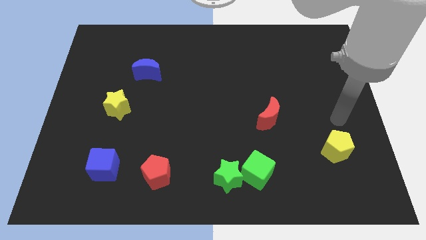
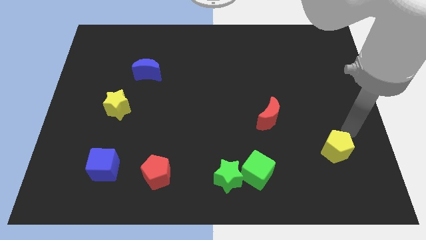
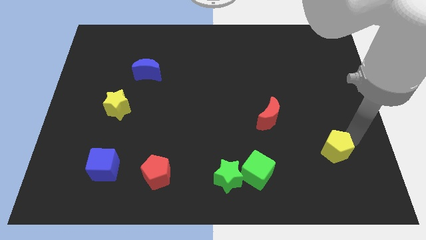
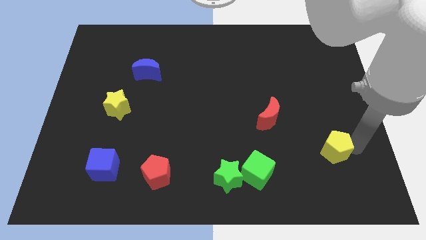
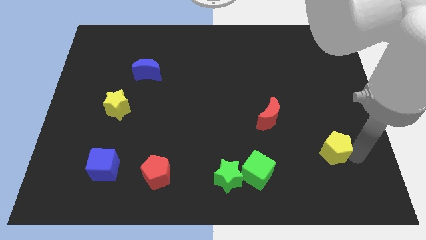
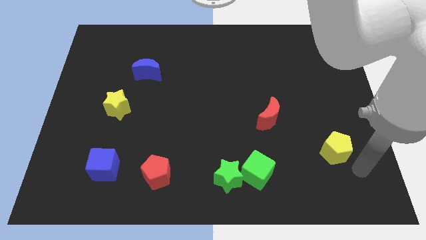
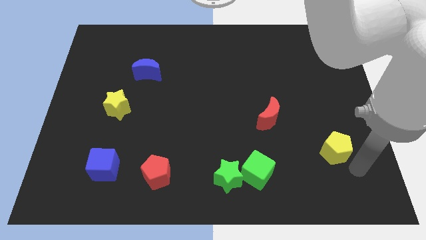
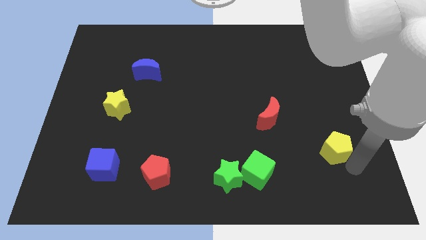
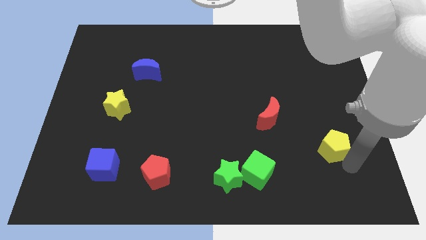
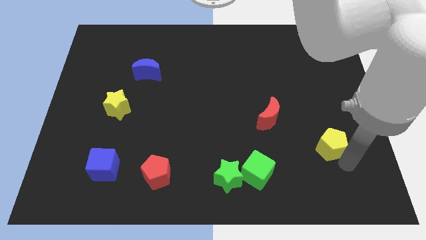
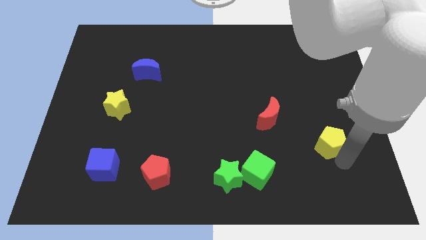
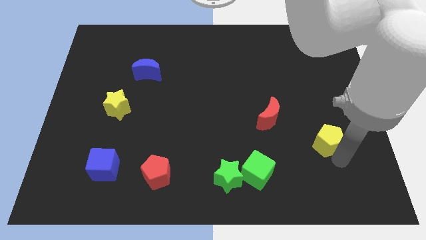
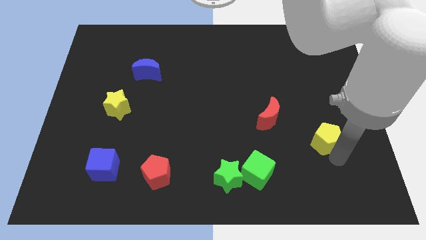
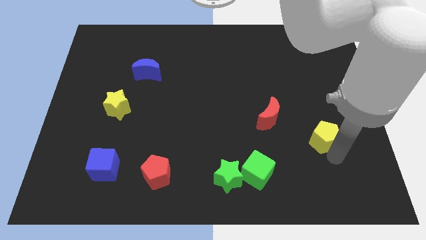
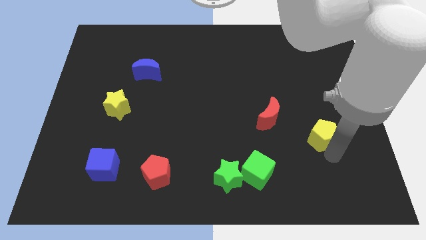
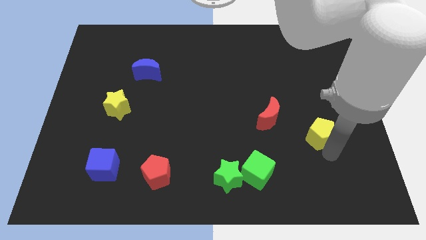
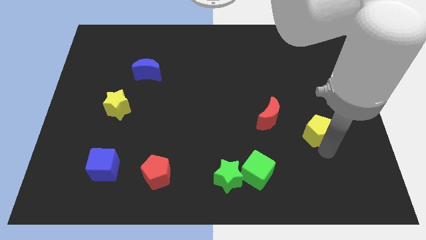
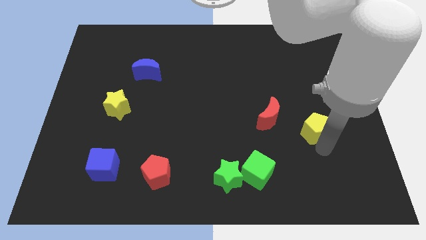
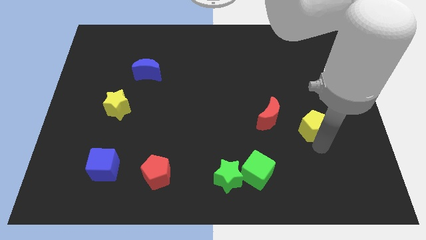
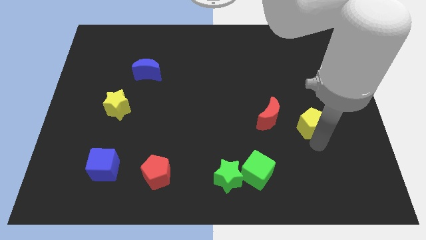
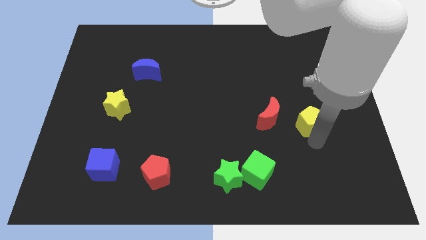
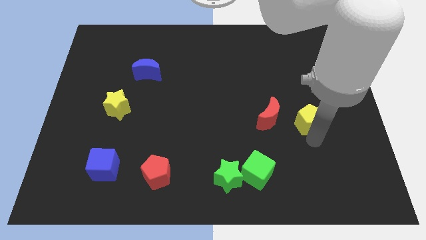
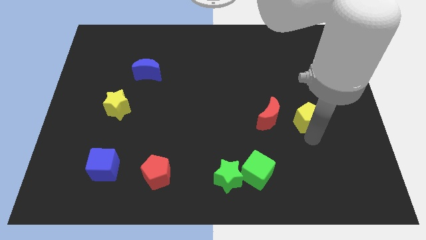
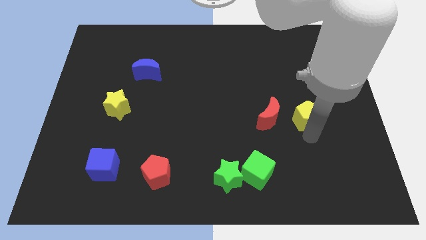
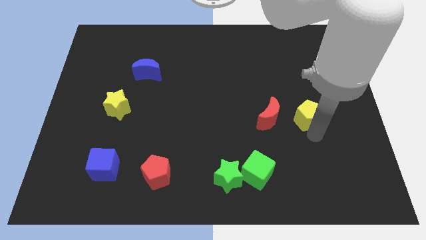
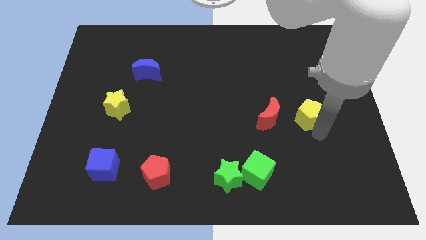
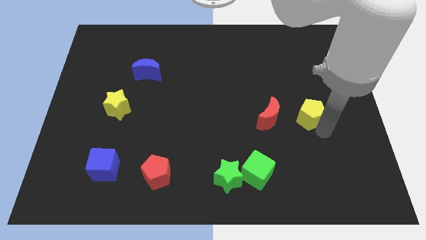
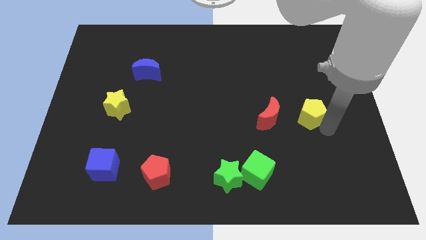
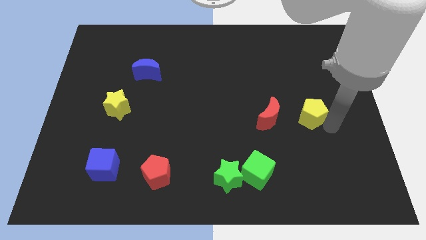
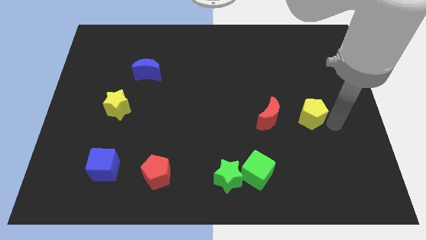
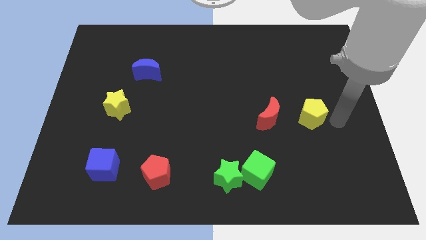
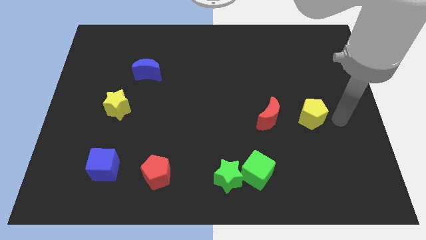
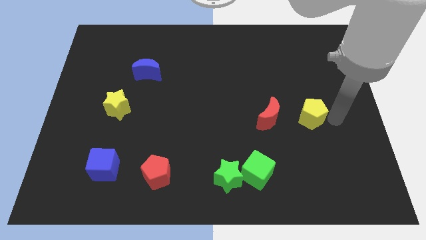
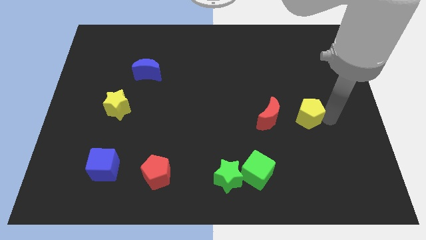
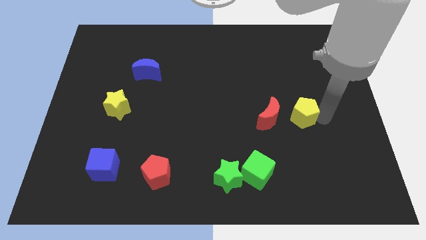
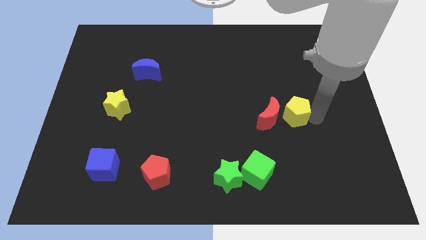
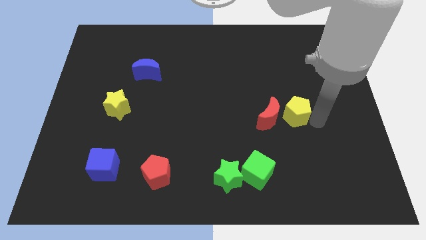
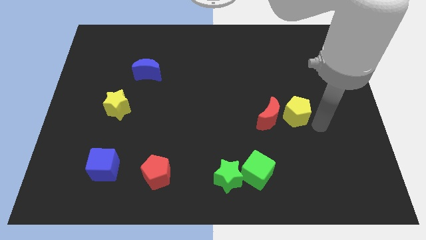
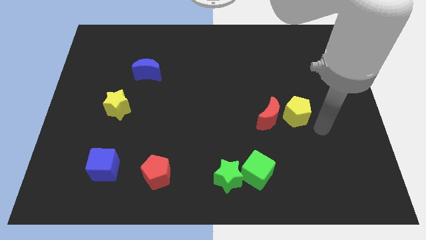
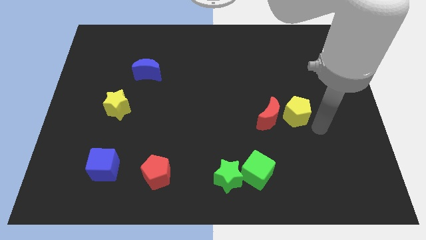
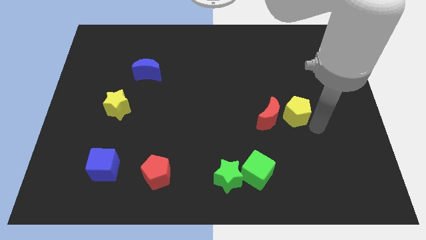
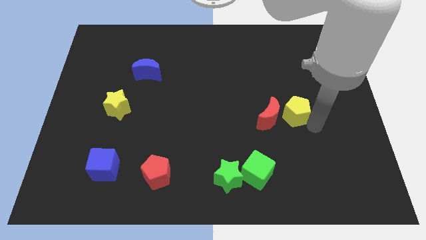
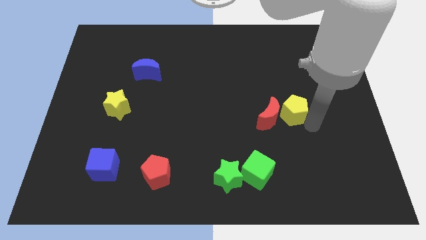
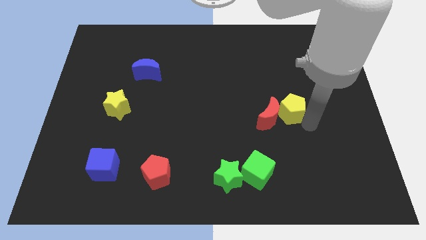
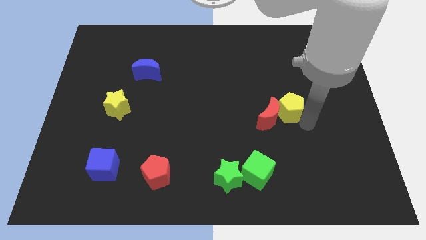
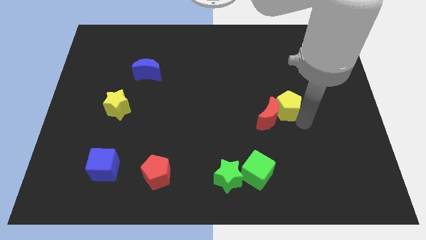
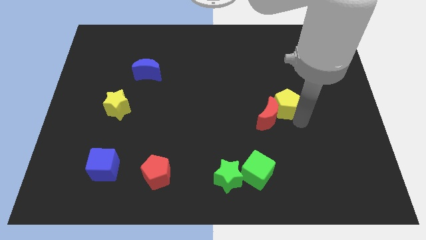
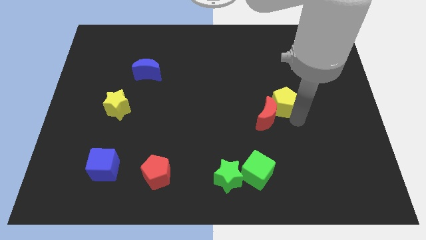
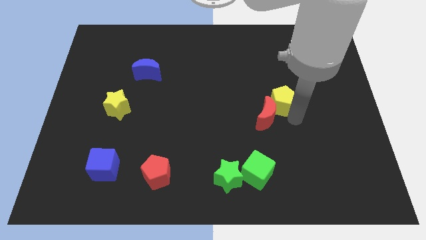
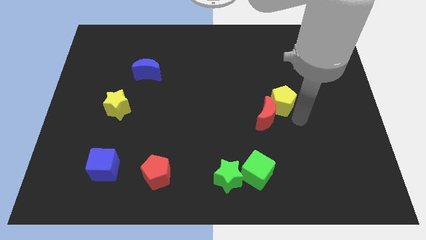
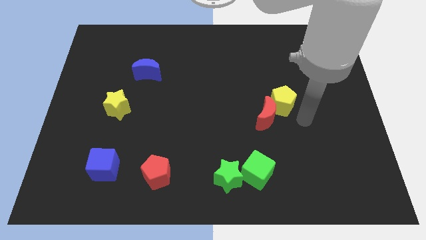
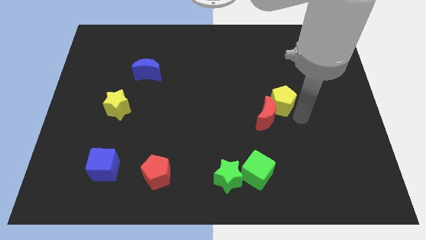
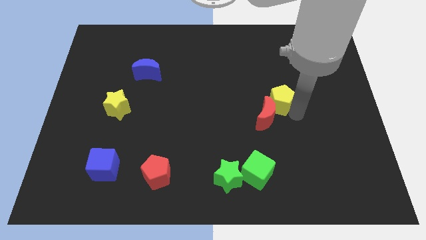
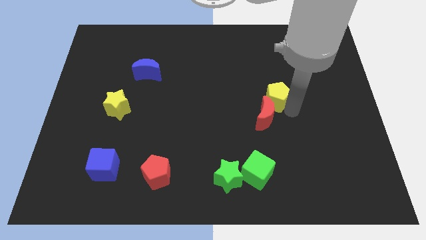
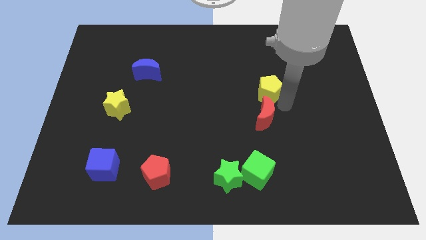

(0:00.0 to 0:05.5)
push the yellow pentagon diagonally up and to the left

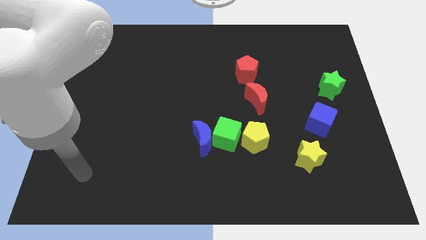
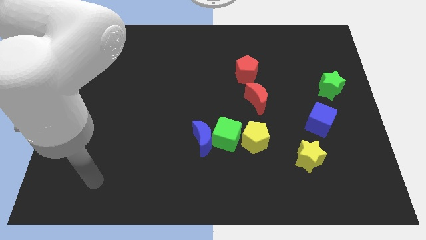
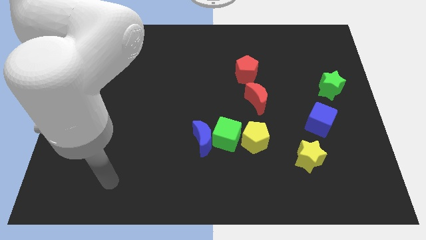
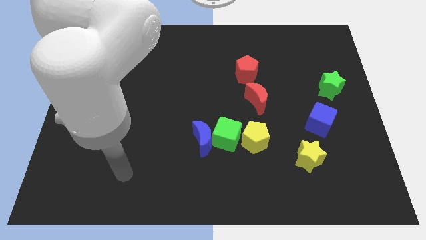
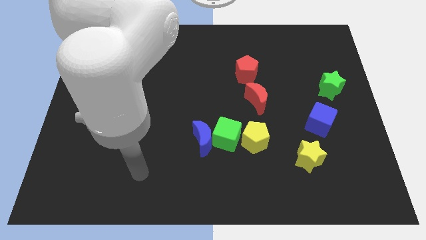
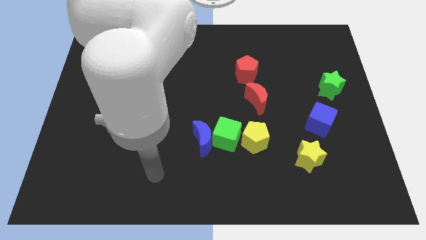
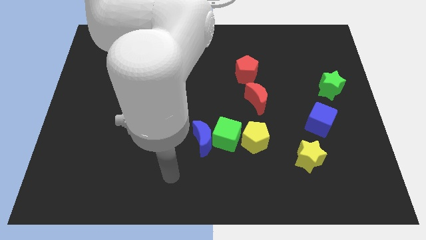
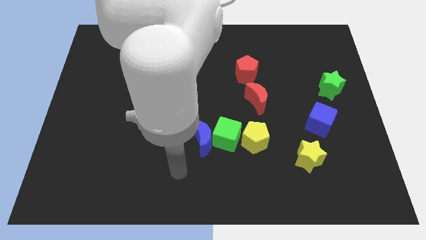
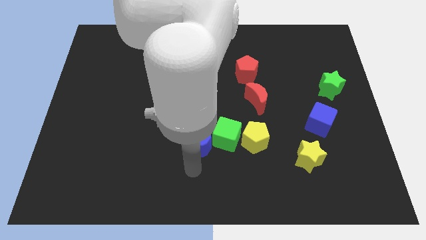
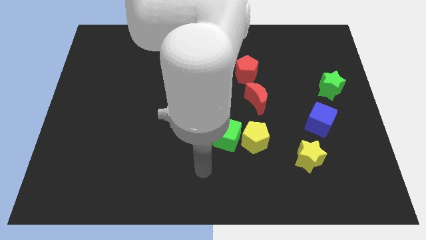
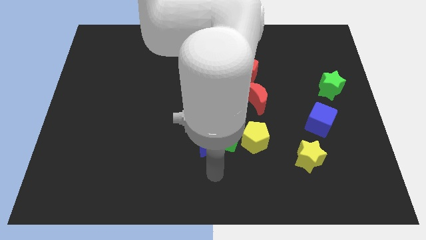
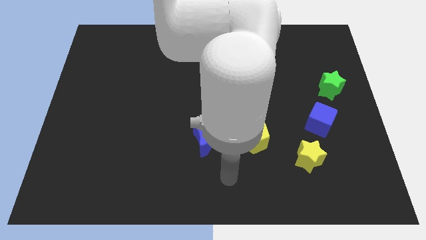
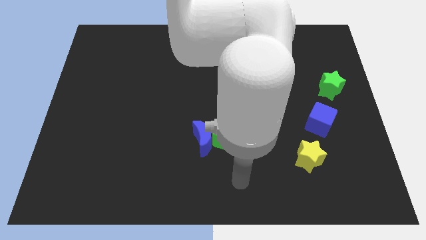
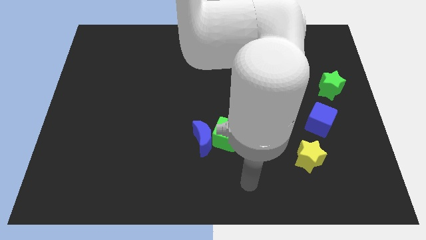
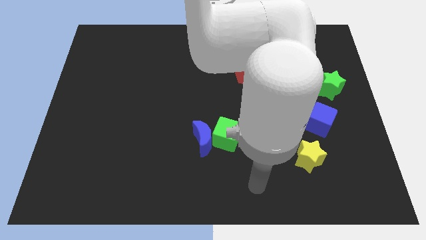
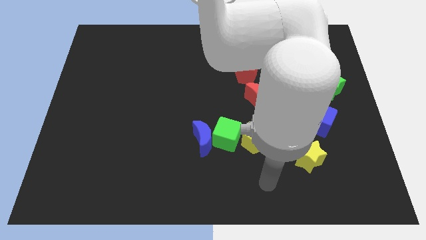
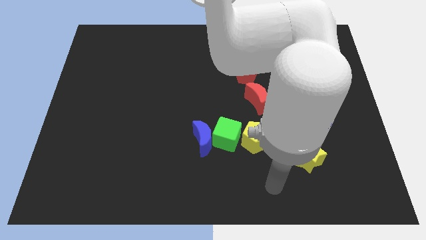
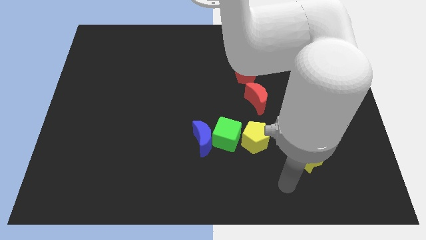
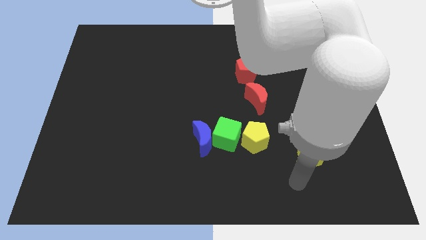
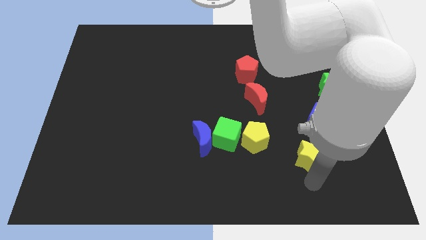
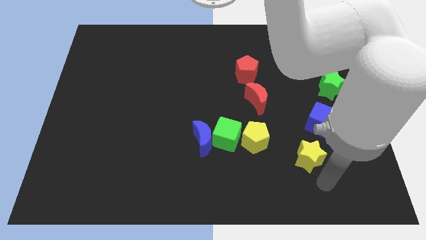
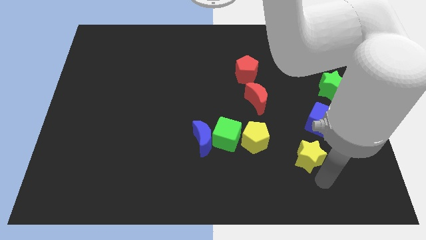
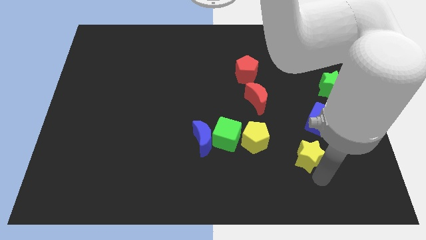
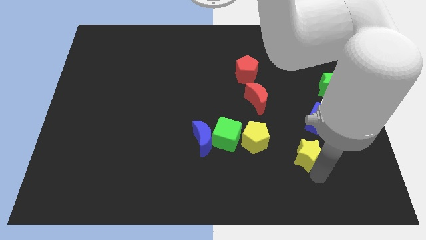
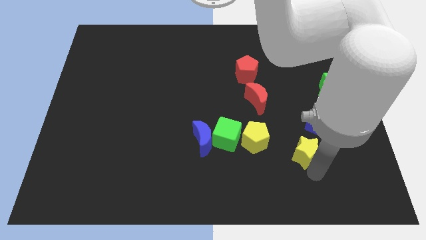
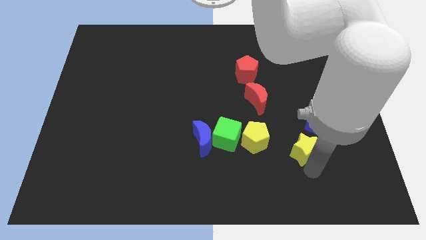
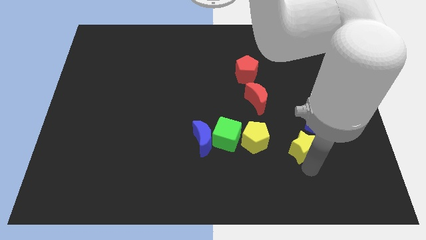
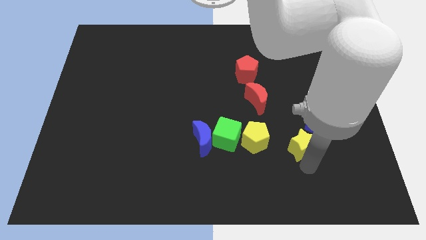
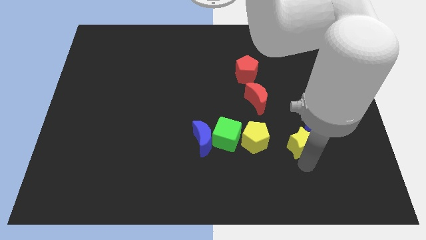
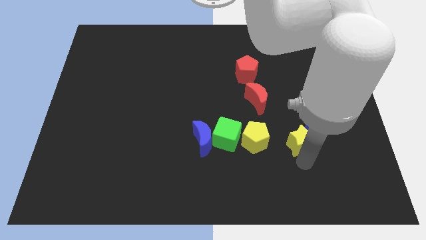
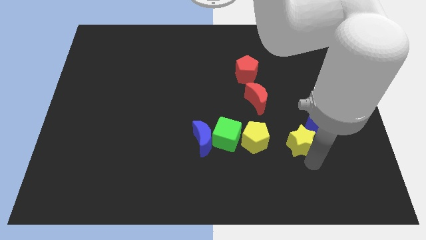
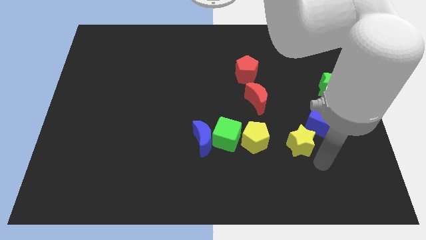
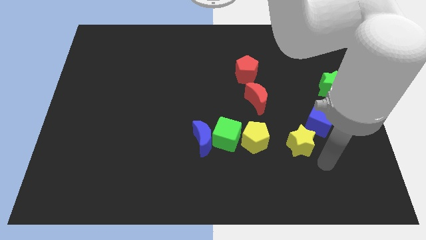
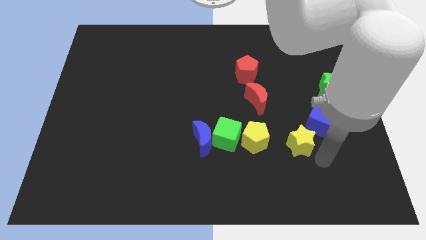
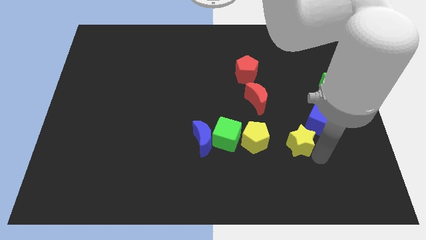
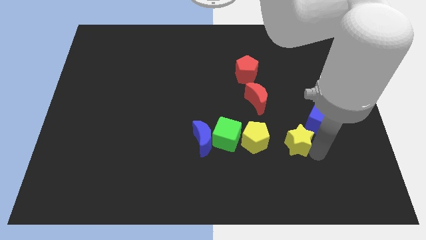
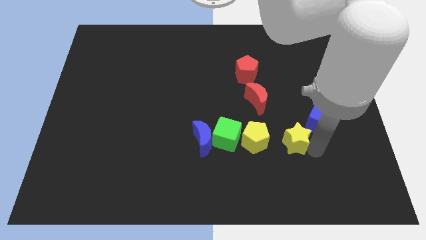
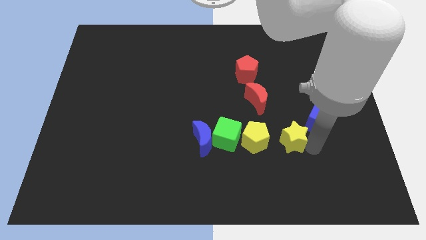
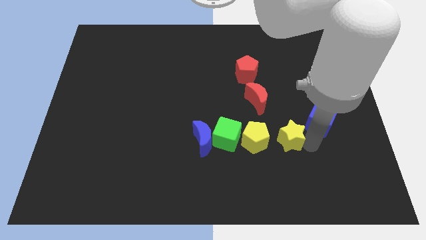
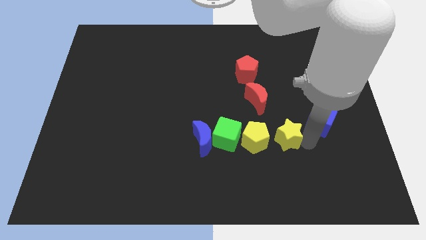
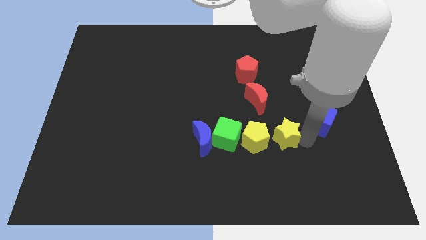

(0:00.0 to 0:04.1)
push the yellow star somewhat up and to the left diagonally
